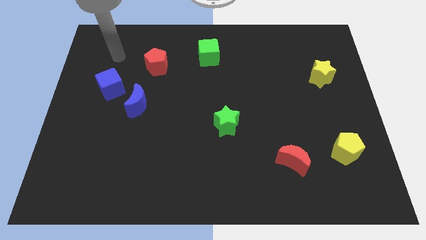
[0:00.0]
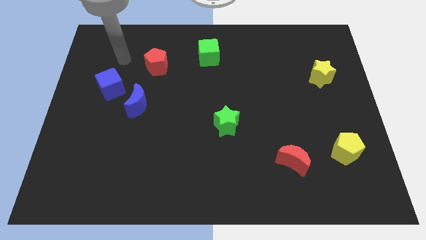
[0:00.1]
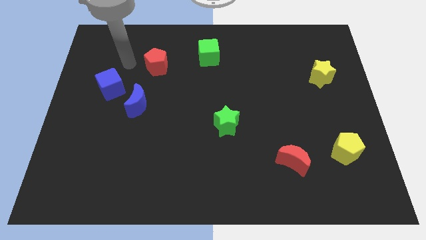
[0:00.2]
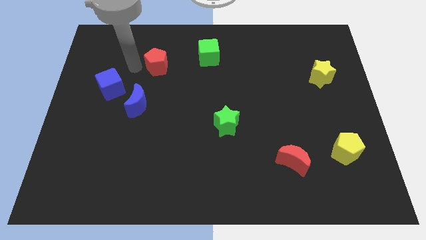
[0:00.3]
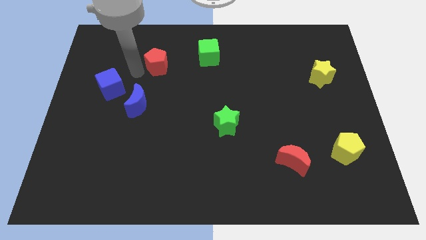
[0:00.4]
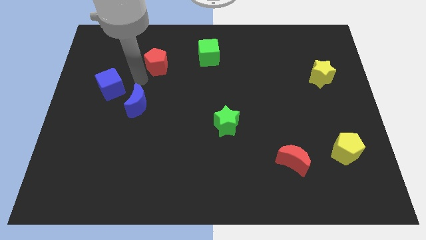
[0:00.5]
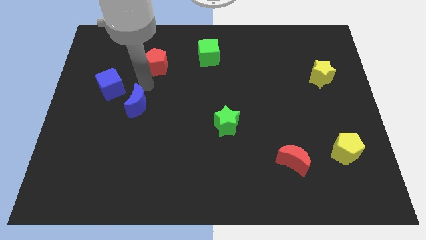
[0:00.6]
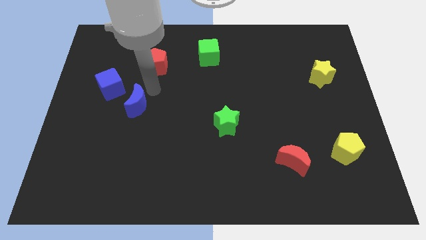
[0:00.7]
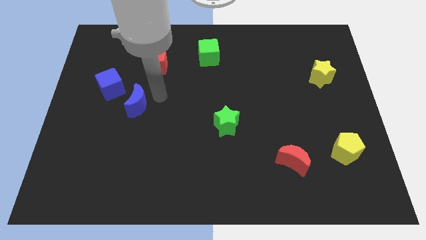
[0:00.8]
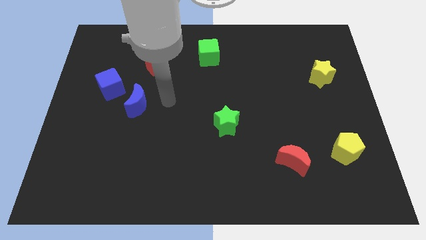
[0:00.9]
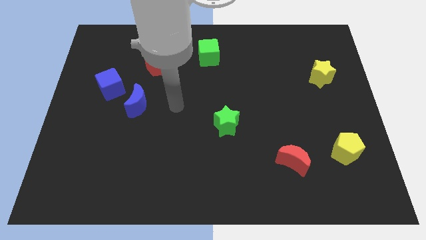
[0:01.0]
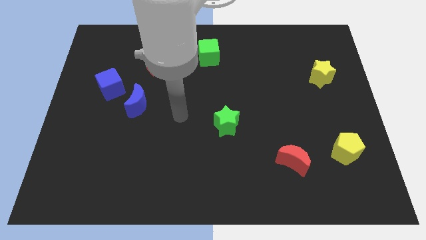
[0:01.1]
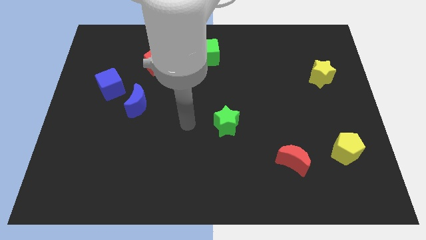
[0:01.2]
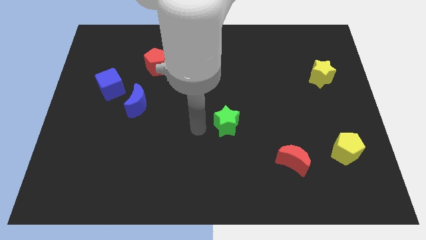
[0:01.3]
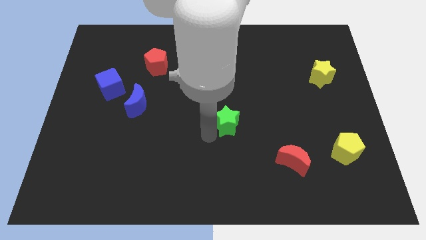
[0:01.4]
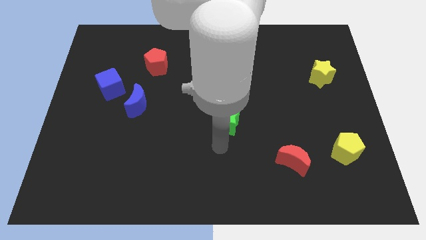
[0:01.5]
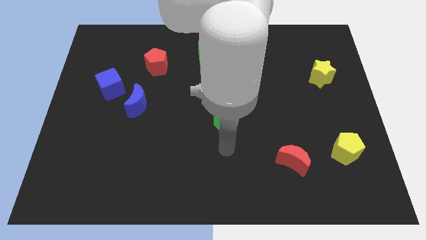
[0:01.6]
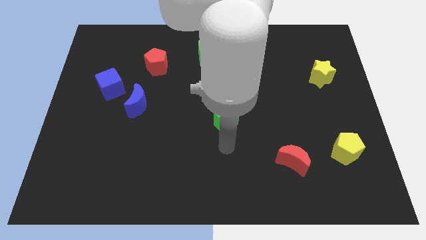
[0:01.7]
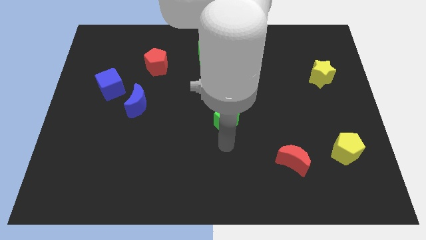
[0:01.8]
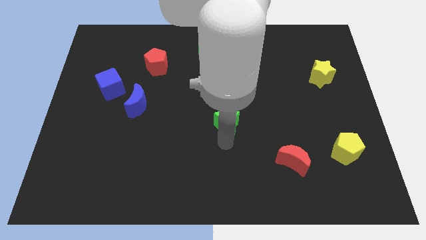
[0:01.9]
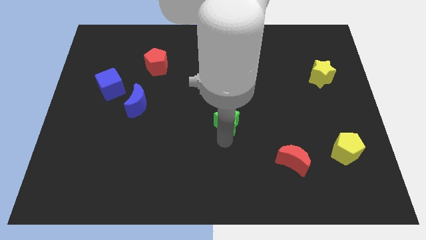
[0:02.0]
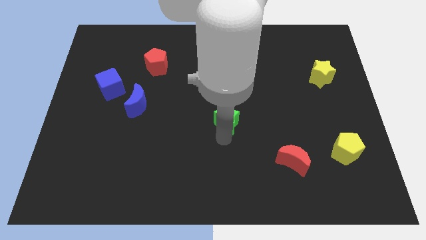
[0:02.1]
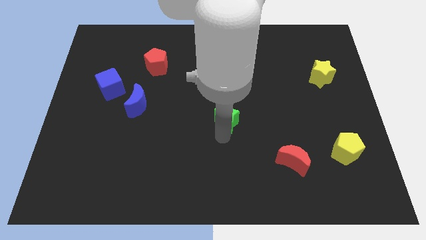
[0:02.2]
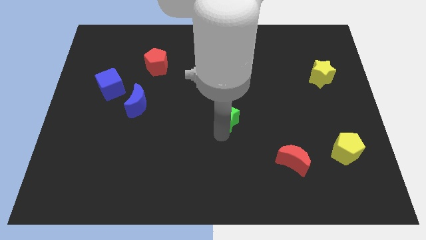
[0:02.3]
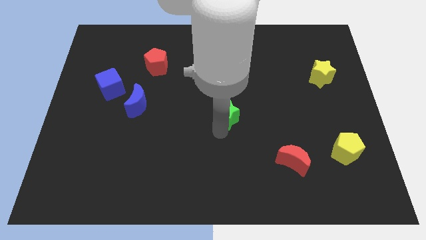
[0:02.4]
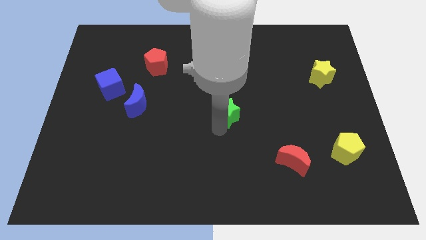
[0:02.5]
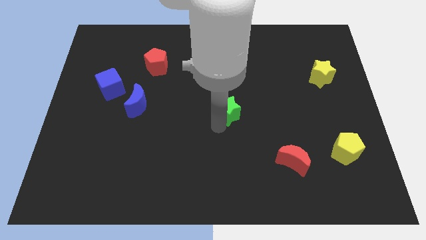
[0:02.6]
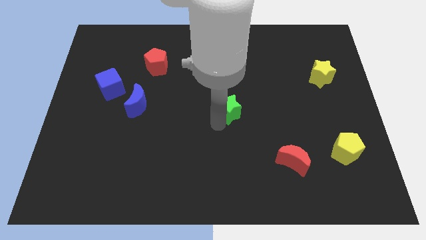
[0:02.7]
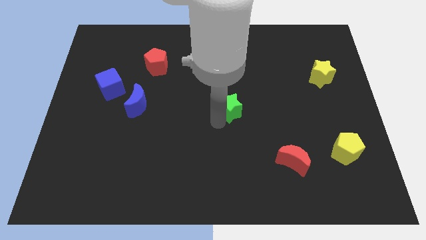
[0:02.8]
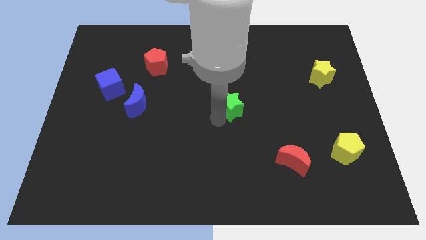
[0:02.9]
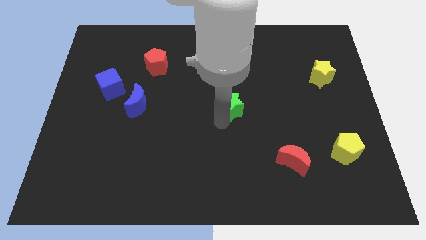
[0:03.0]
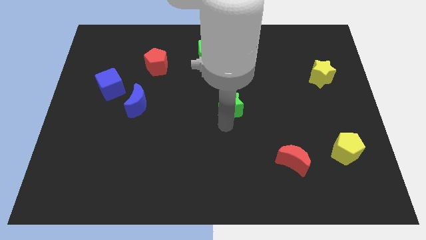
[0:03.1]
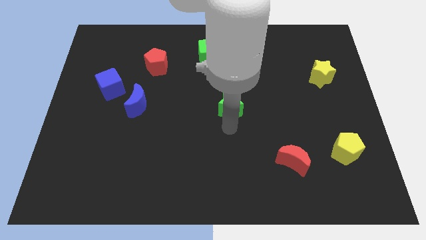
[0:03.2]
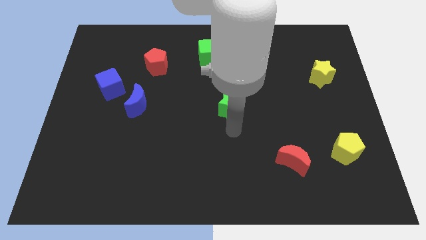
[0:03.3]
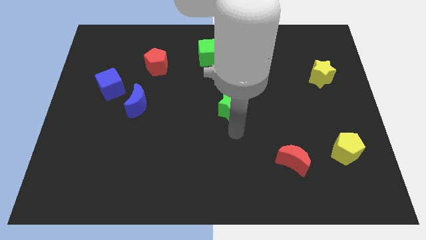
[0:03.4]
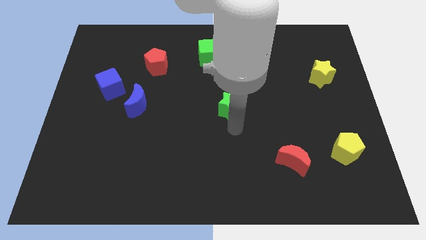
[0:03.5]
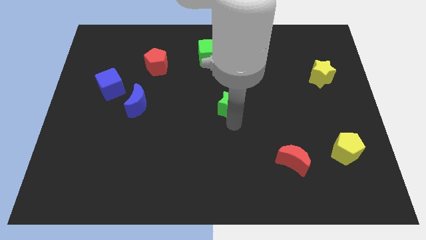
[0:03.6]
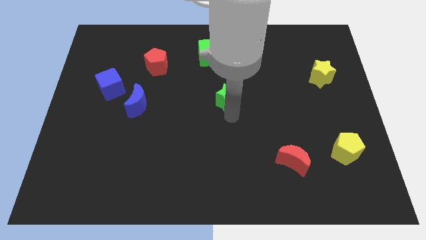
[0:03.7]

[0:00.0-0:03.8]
slightly slide the green star up

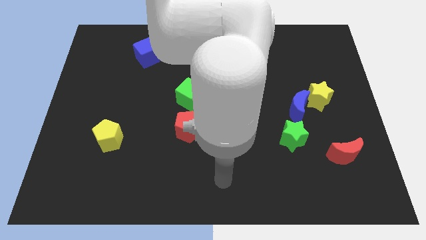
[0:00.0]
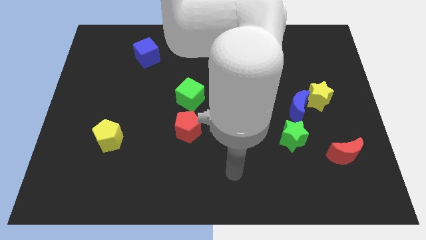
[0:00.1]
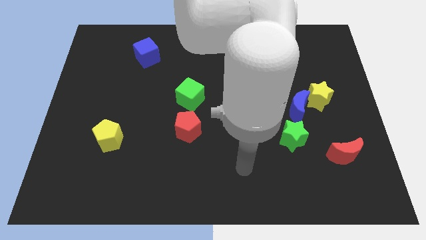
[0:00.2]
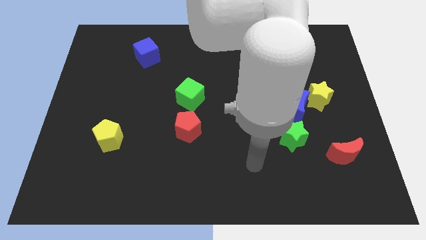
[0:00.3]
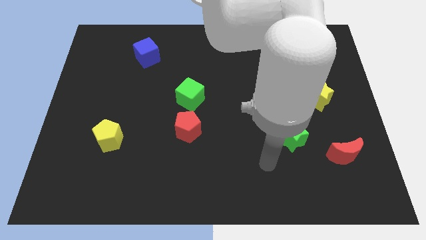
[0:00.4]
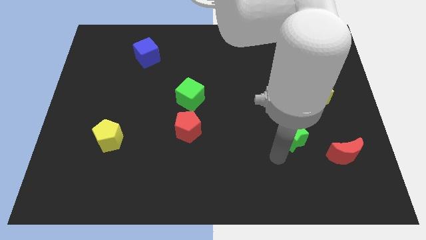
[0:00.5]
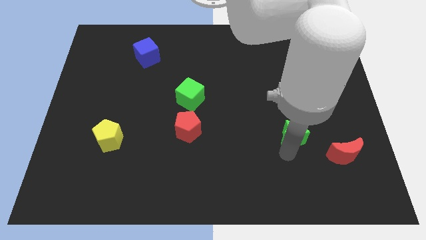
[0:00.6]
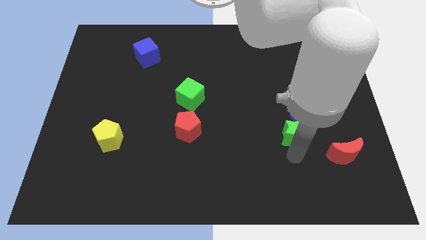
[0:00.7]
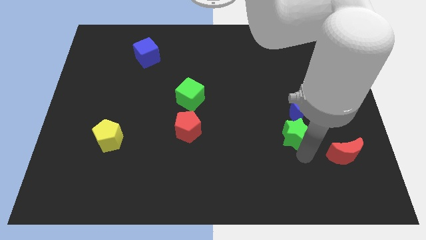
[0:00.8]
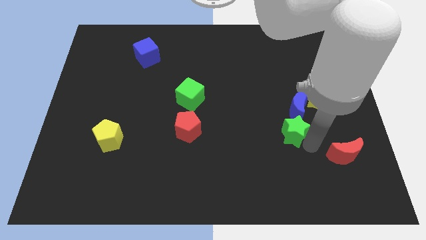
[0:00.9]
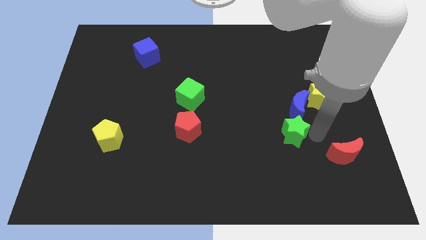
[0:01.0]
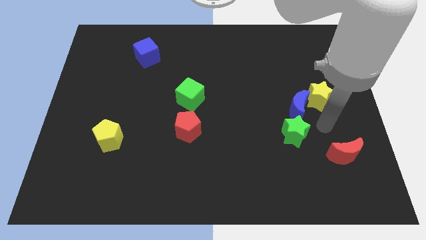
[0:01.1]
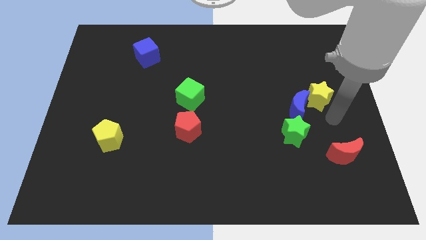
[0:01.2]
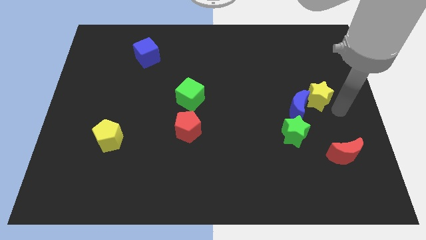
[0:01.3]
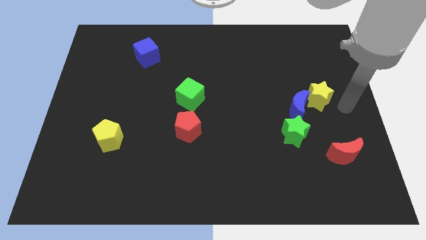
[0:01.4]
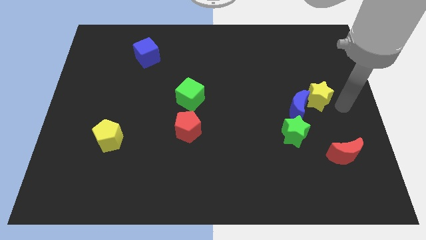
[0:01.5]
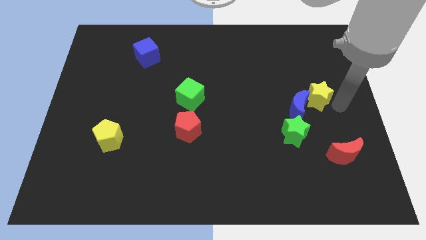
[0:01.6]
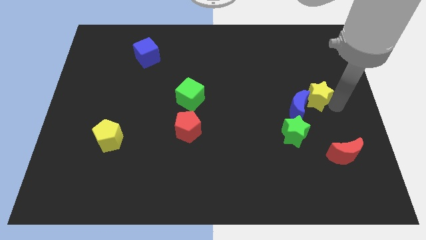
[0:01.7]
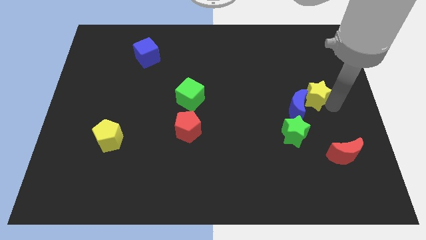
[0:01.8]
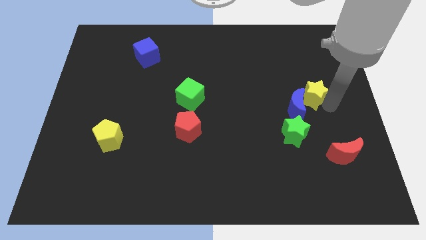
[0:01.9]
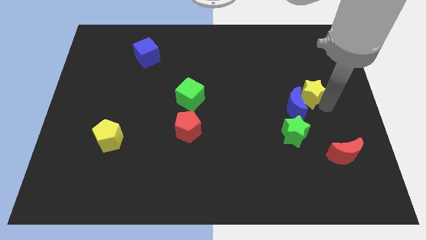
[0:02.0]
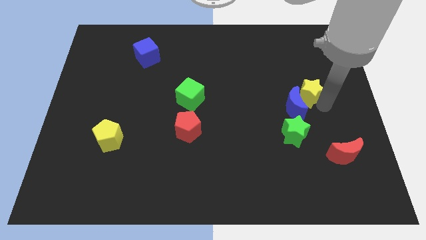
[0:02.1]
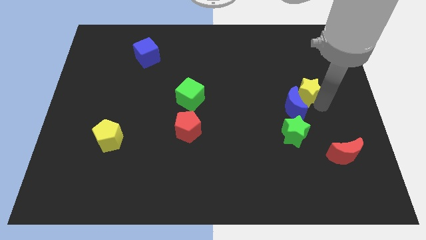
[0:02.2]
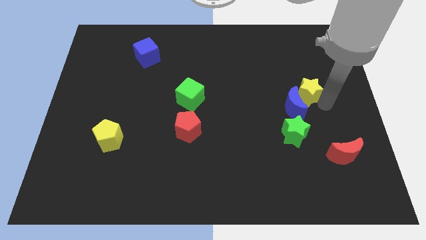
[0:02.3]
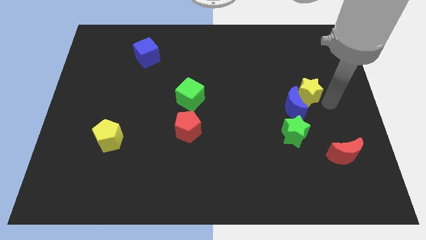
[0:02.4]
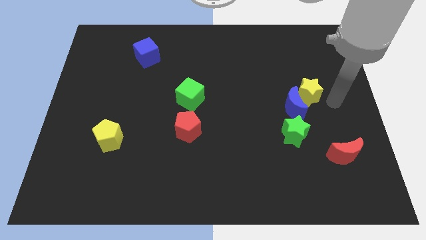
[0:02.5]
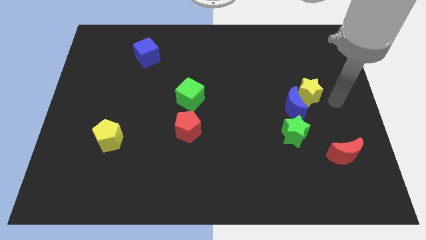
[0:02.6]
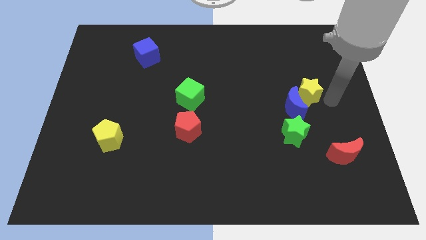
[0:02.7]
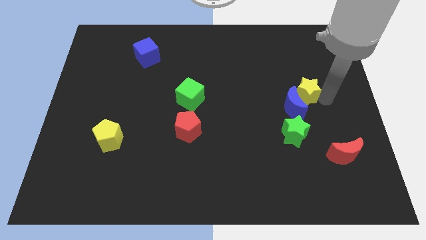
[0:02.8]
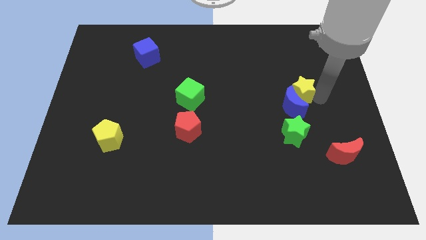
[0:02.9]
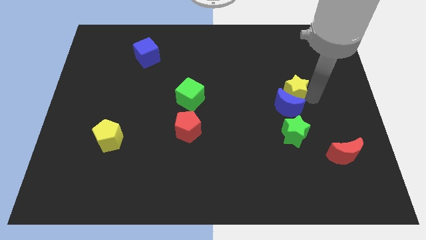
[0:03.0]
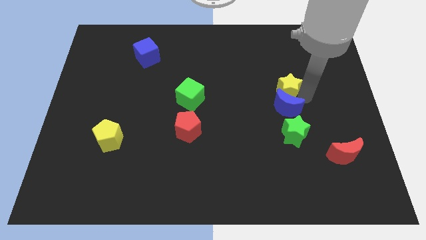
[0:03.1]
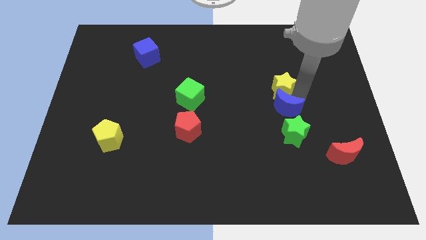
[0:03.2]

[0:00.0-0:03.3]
slightly move the yellow star upwards and then to the left

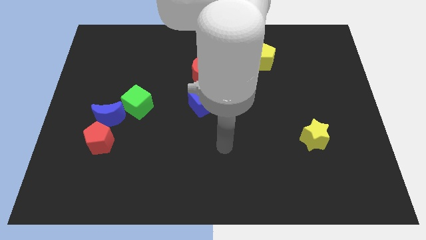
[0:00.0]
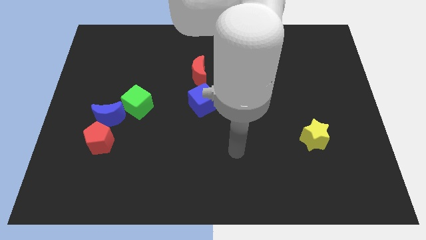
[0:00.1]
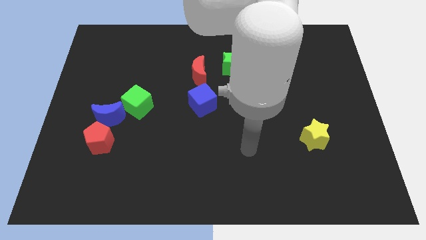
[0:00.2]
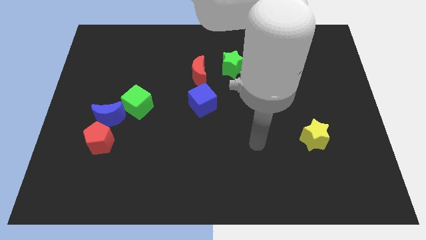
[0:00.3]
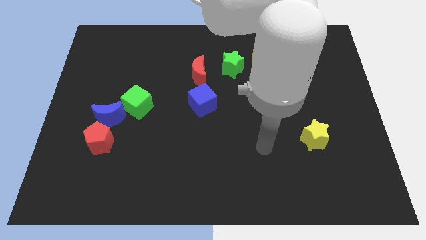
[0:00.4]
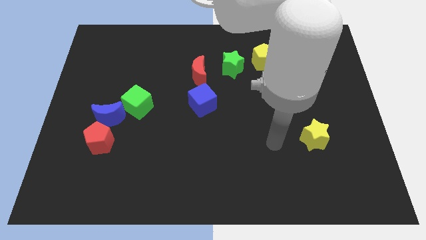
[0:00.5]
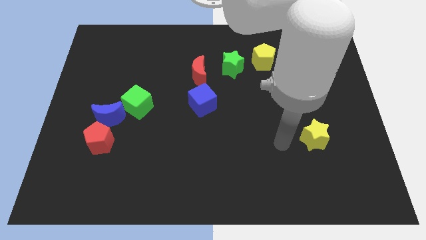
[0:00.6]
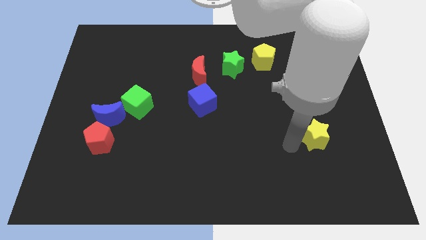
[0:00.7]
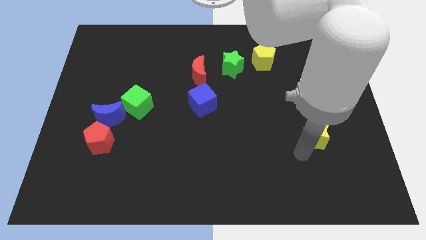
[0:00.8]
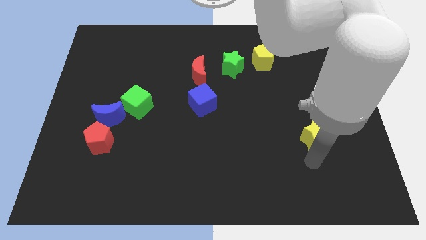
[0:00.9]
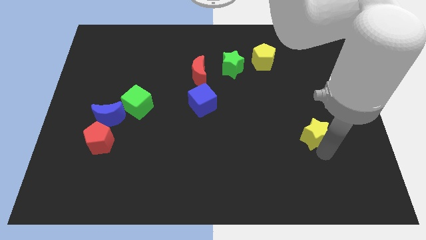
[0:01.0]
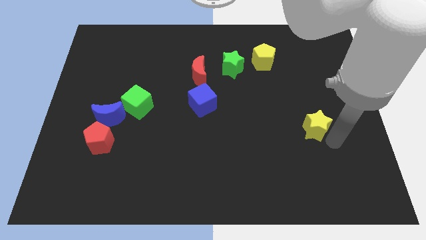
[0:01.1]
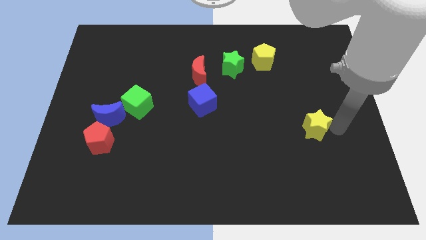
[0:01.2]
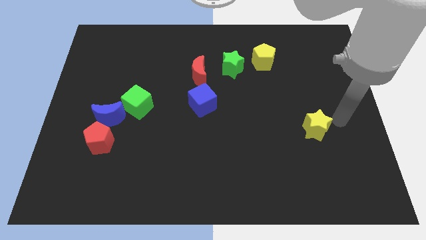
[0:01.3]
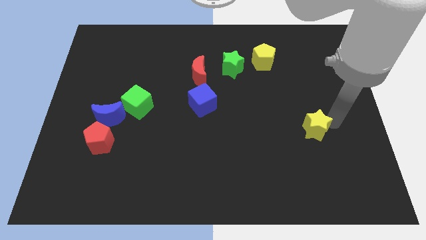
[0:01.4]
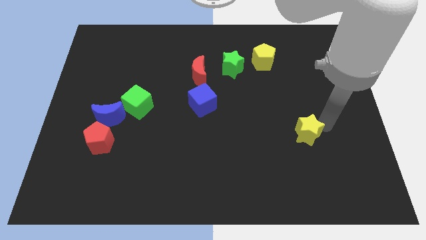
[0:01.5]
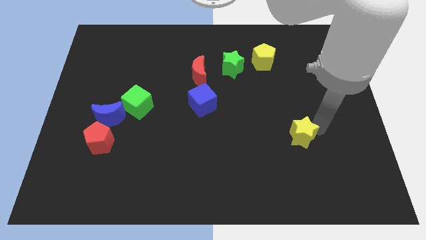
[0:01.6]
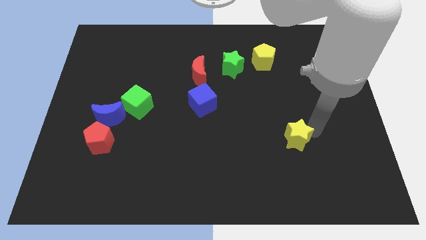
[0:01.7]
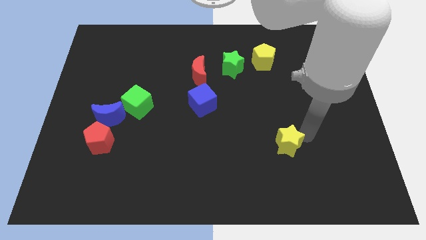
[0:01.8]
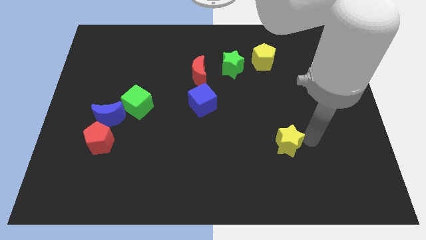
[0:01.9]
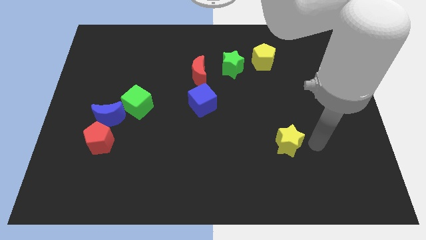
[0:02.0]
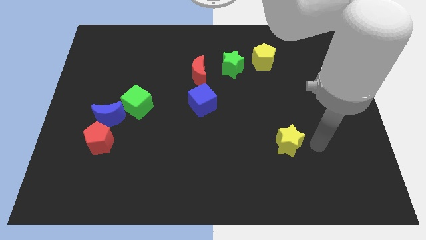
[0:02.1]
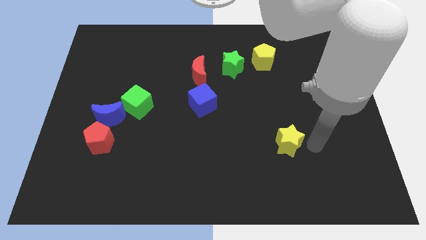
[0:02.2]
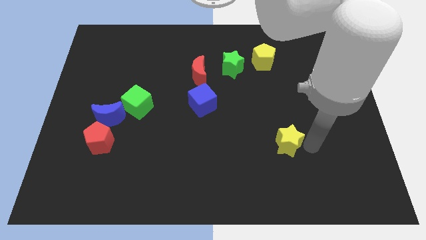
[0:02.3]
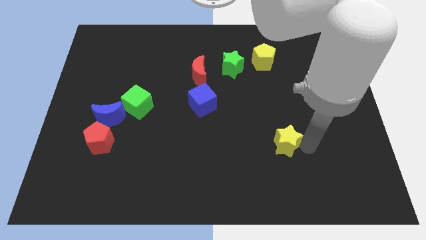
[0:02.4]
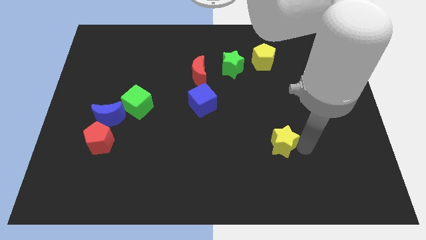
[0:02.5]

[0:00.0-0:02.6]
slightly slide the yellow star to the left
